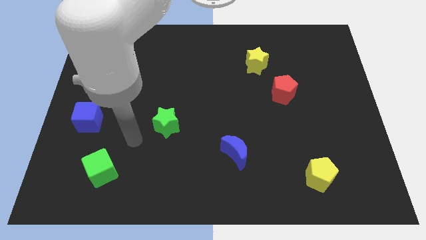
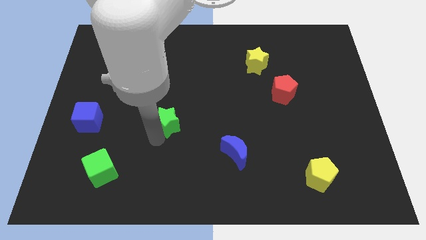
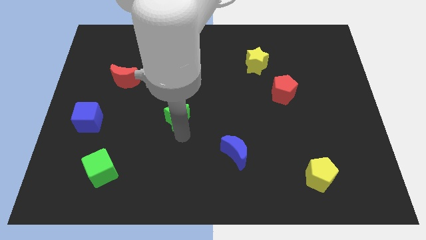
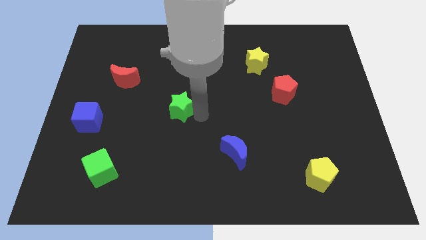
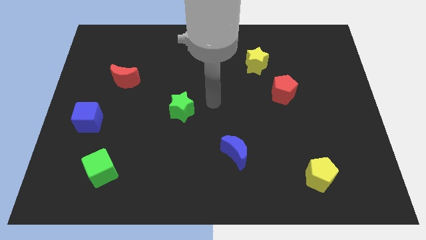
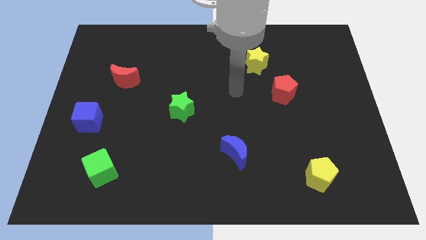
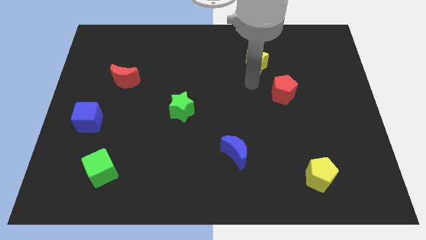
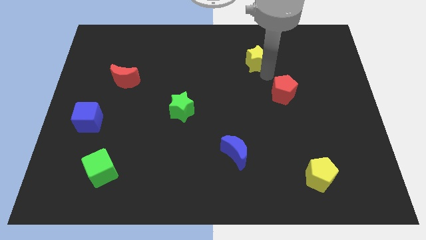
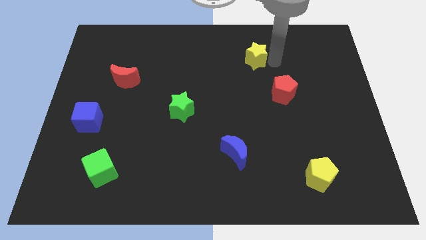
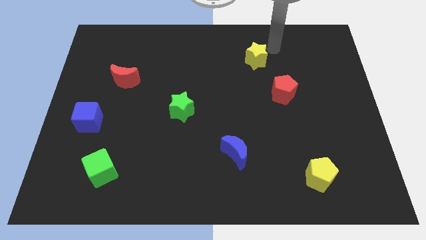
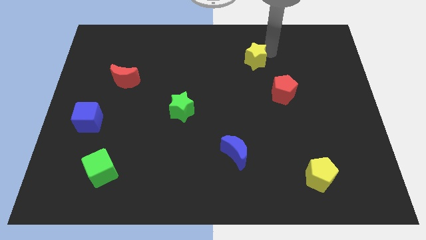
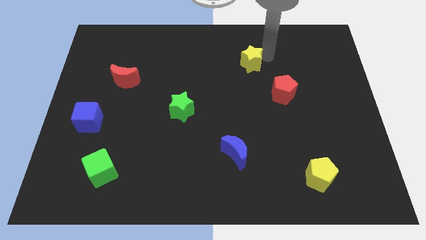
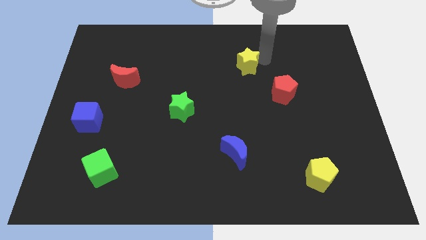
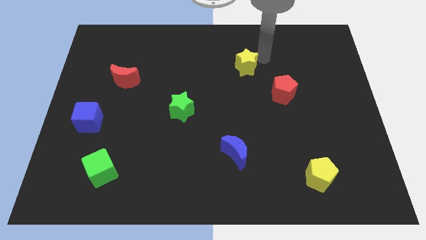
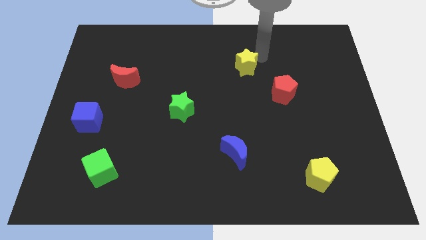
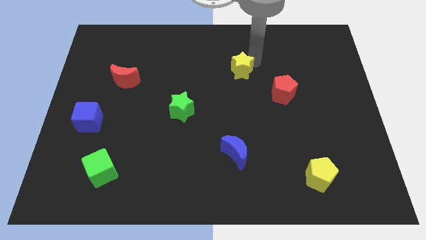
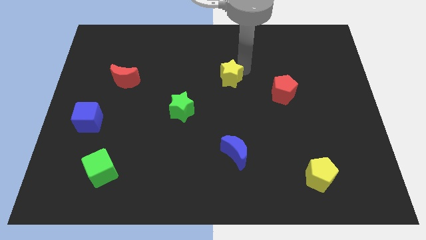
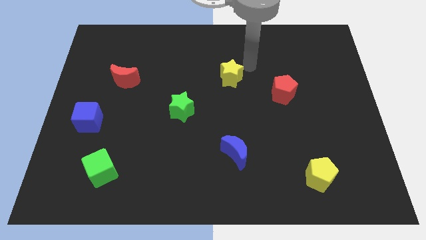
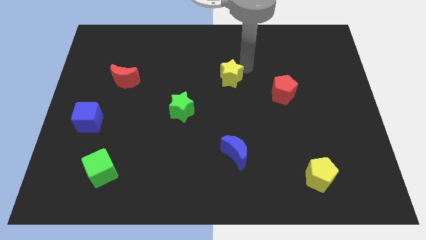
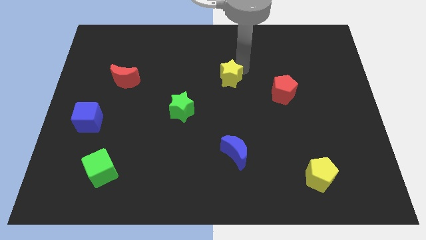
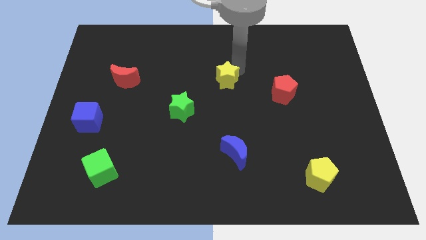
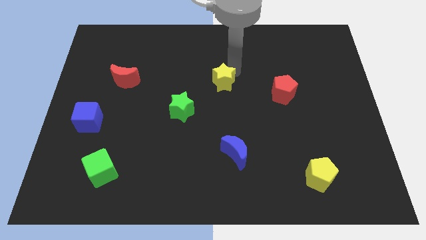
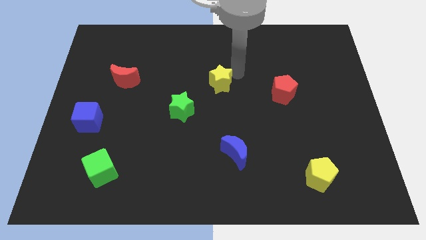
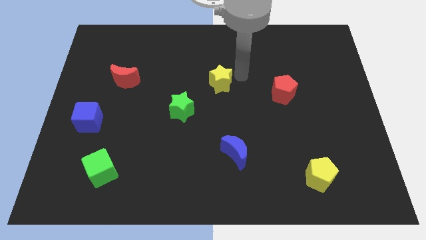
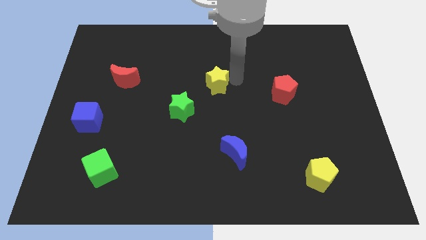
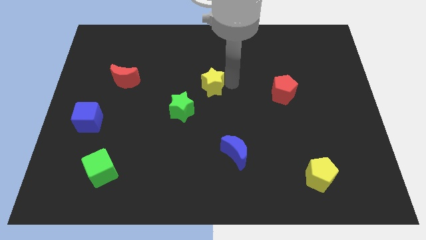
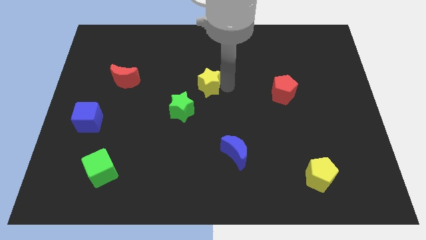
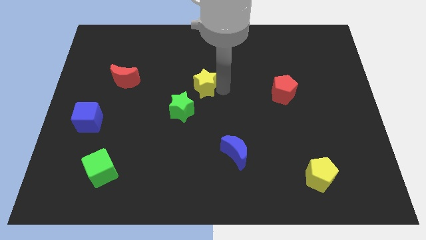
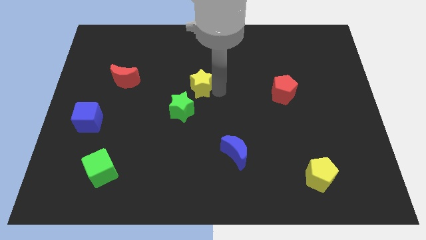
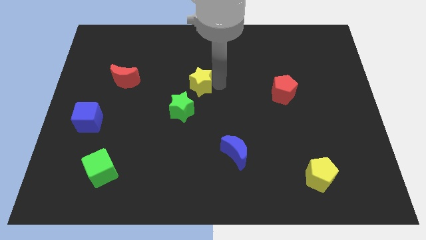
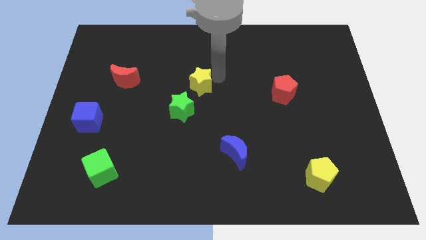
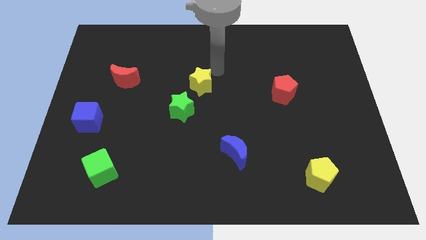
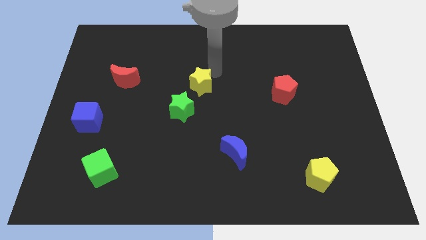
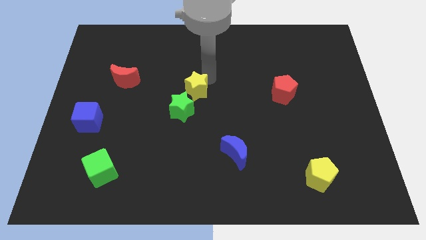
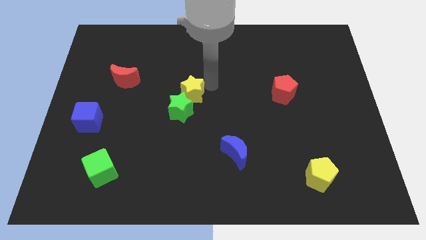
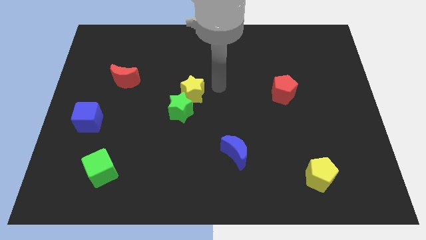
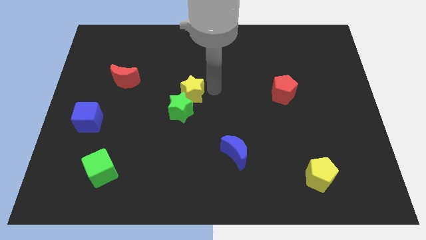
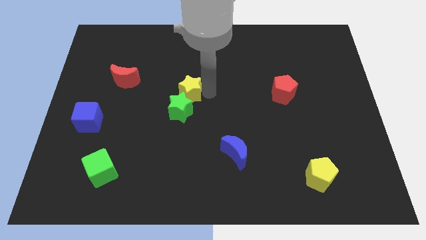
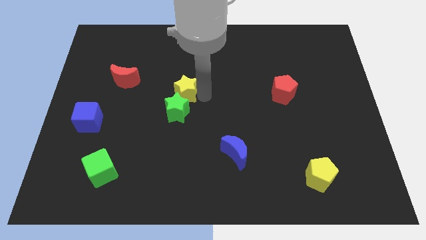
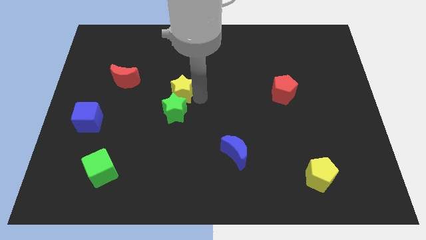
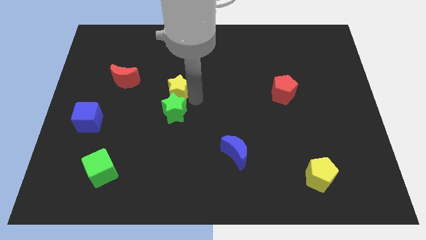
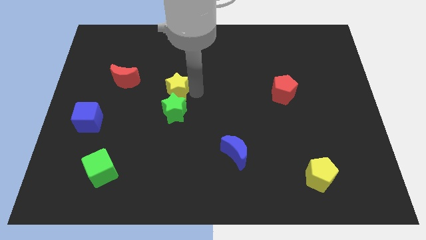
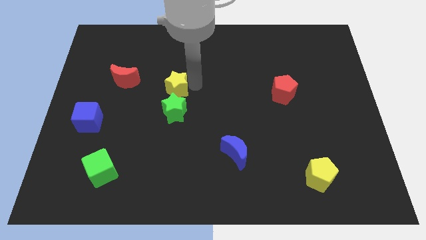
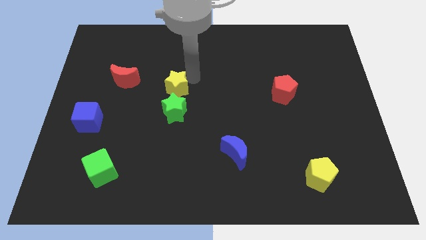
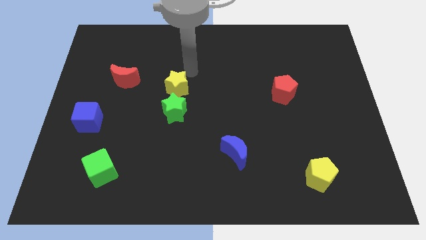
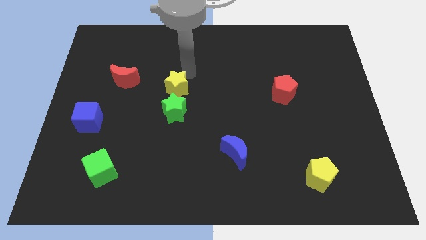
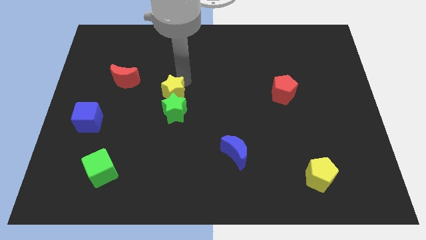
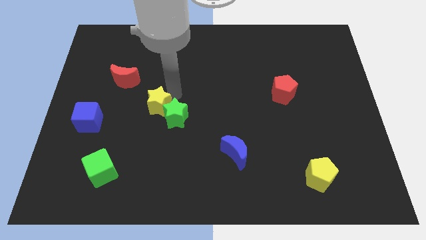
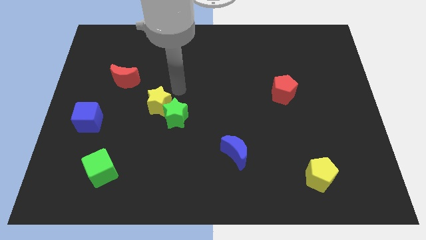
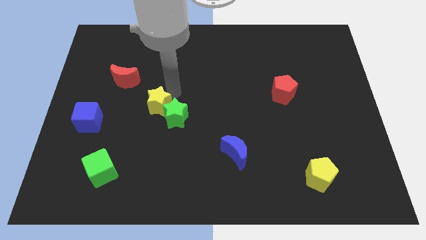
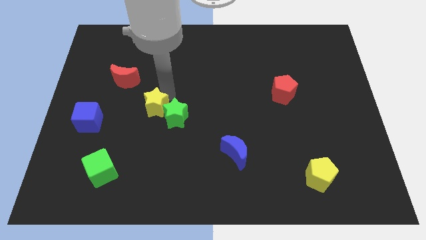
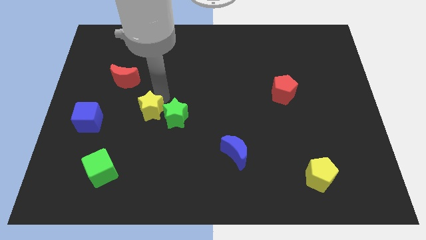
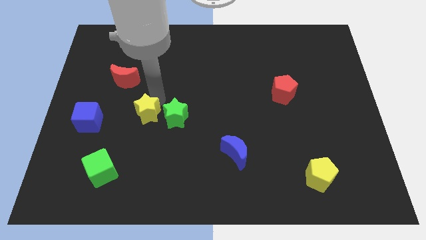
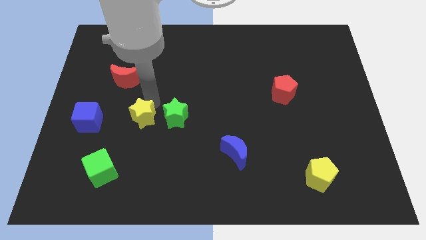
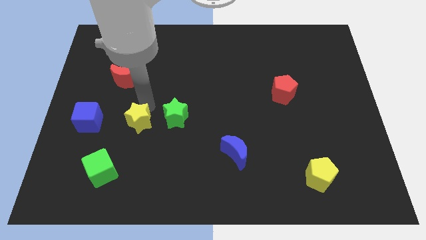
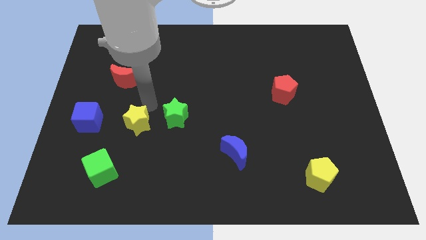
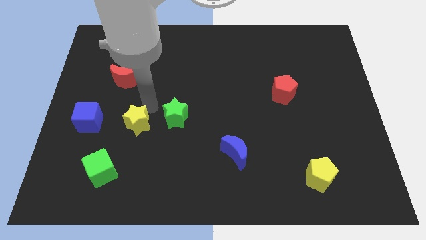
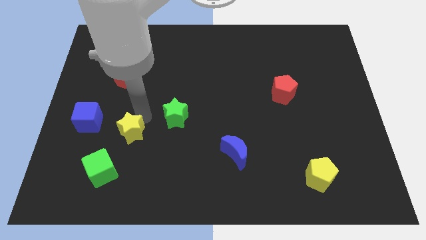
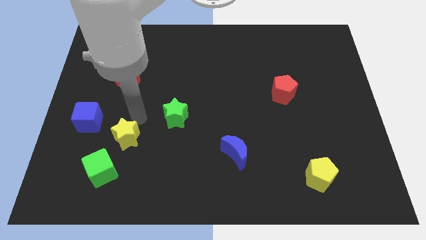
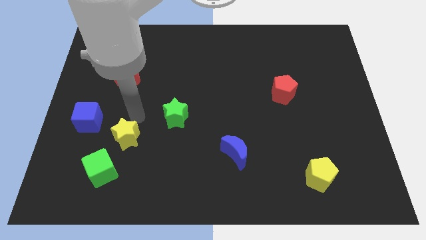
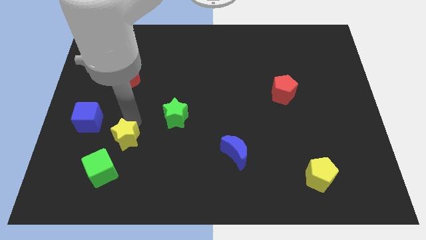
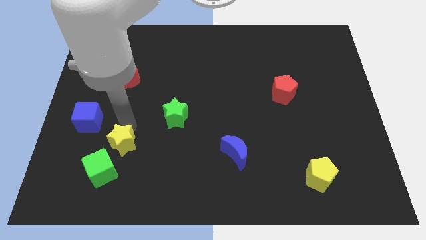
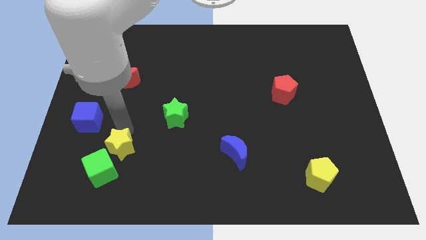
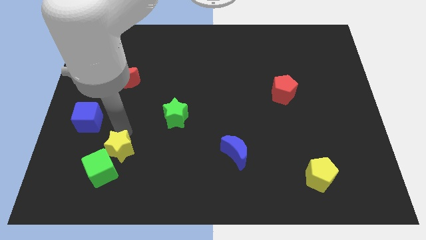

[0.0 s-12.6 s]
slide the yellow star next to the green cube

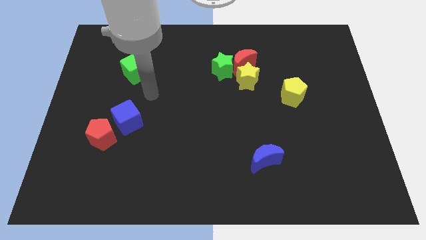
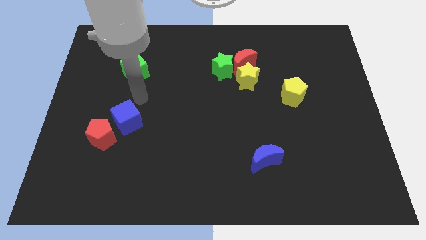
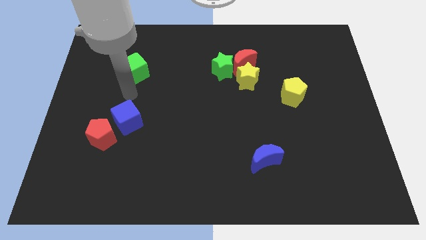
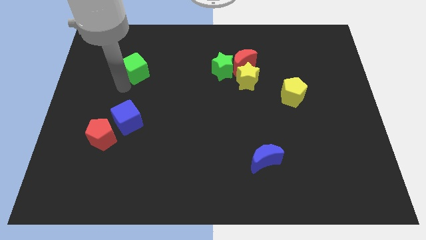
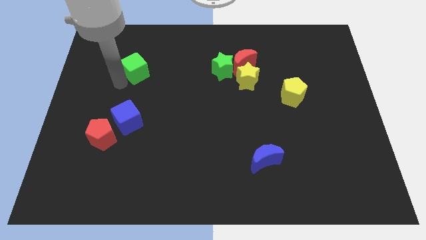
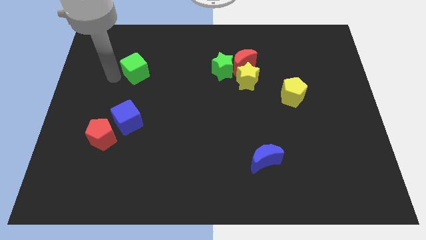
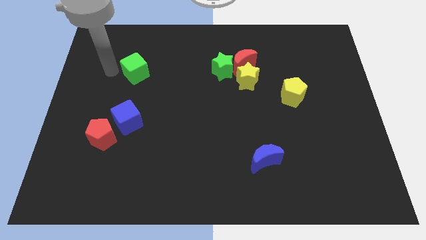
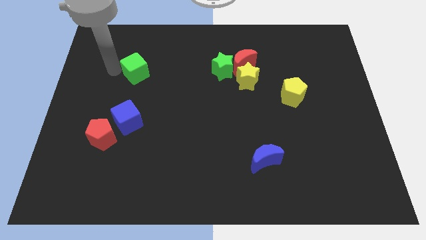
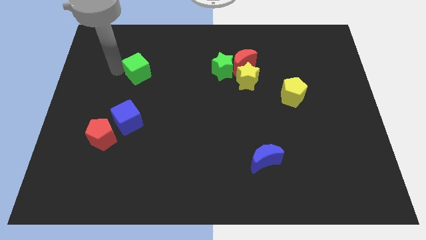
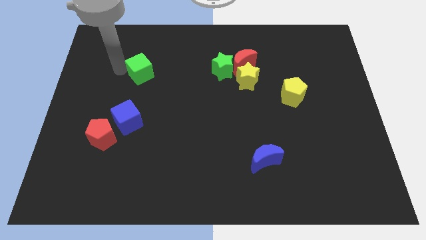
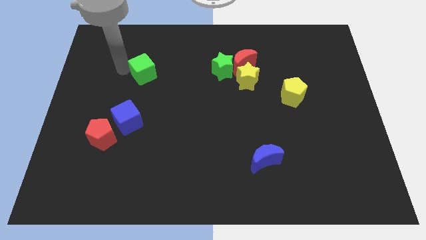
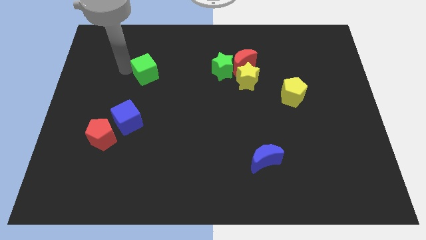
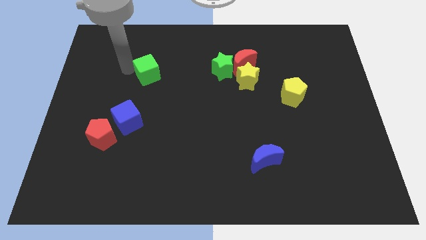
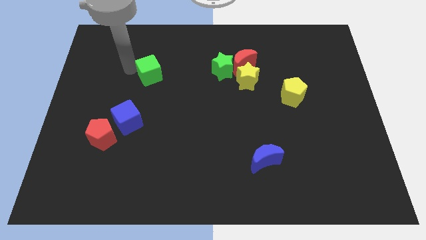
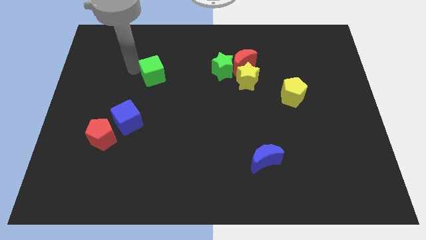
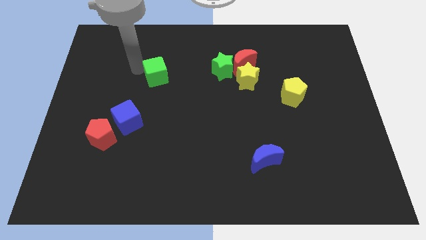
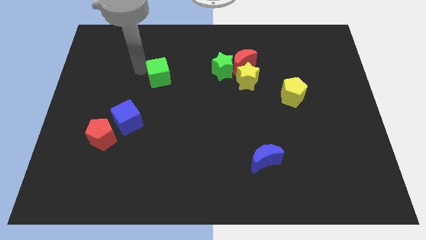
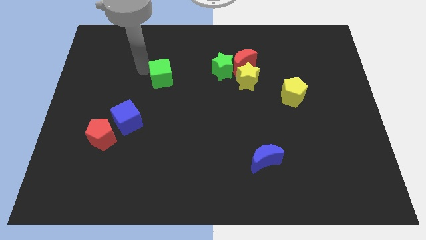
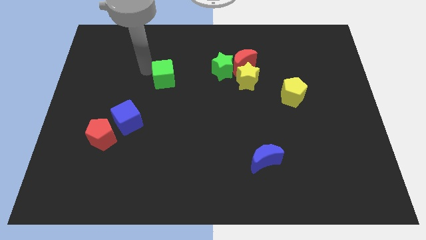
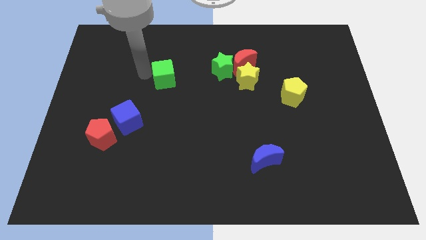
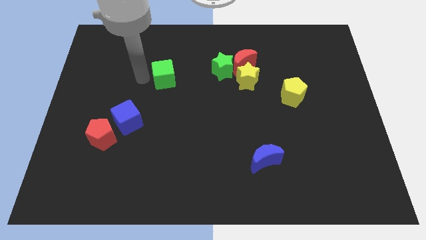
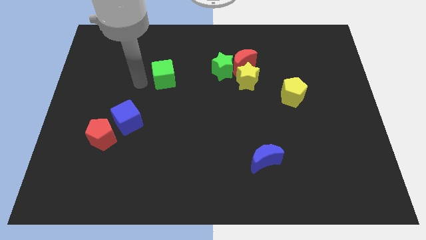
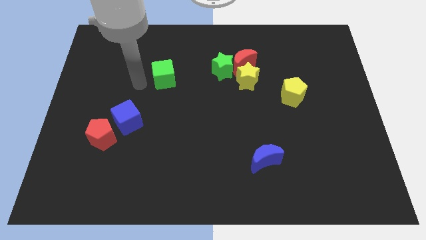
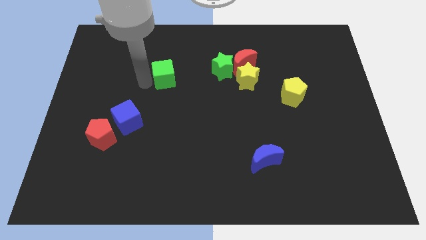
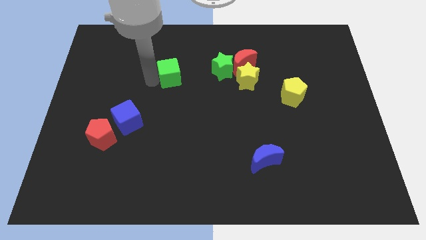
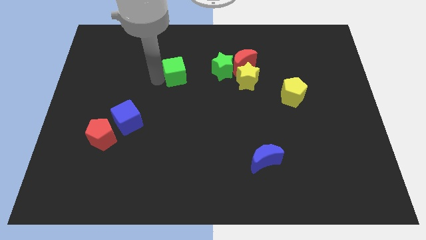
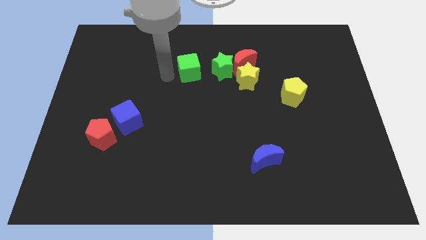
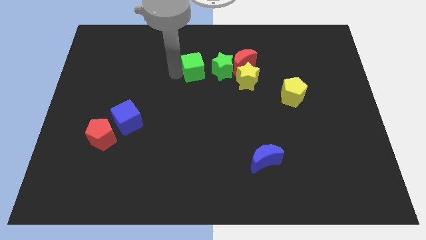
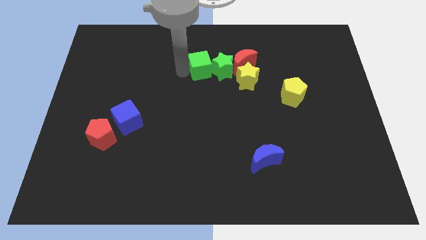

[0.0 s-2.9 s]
slide the green cube close to the green star
